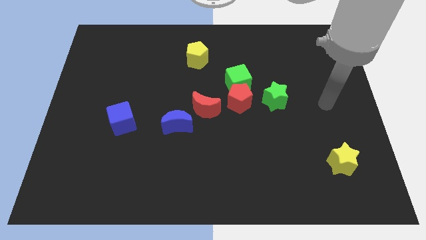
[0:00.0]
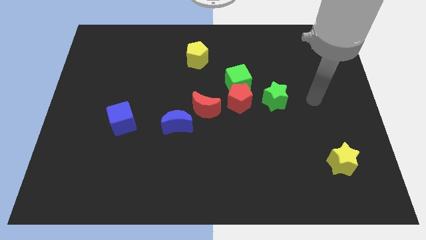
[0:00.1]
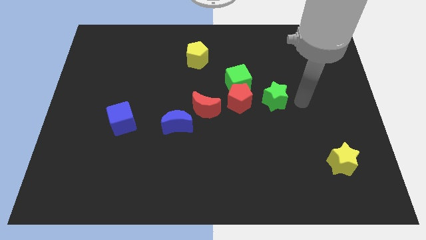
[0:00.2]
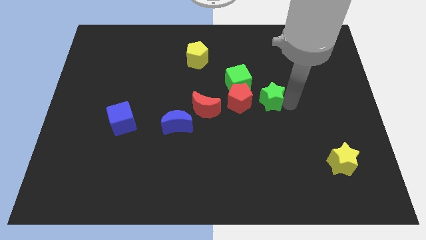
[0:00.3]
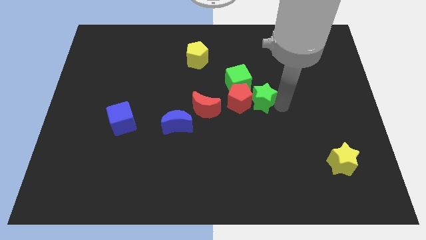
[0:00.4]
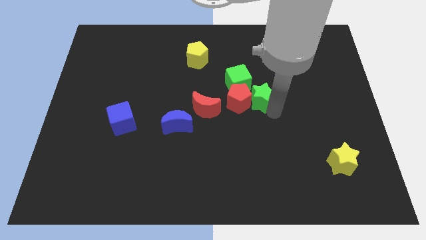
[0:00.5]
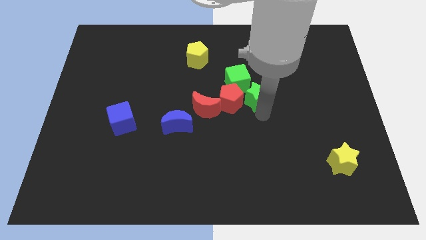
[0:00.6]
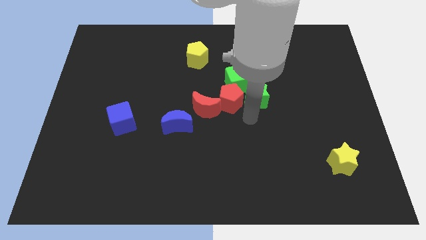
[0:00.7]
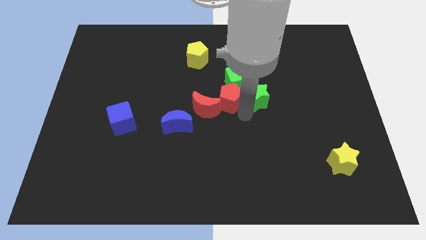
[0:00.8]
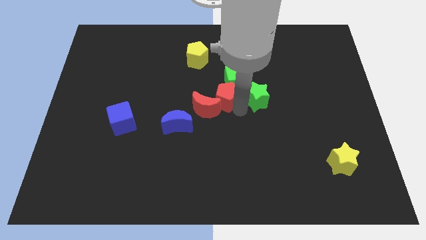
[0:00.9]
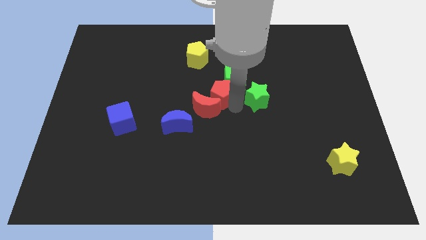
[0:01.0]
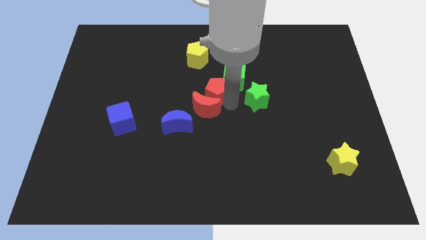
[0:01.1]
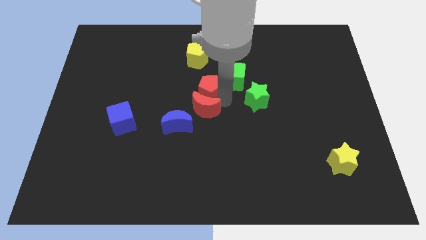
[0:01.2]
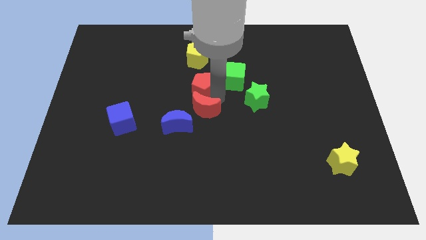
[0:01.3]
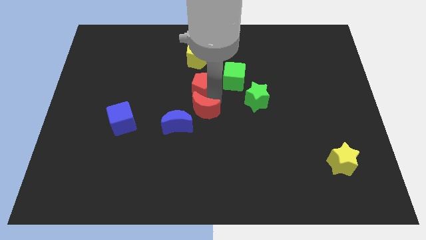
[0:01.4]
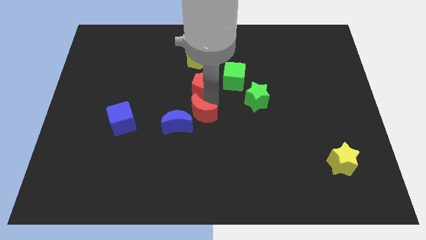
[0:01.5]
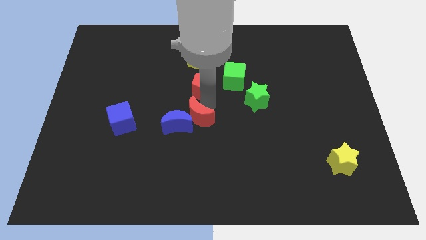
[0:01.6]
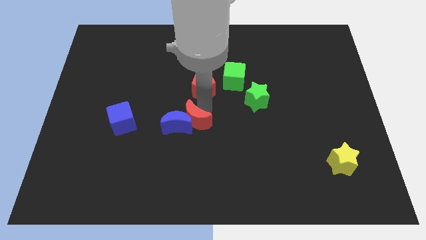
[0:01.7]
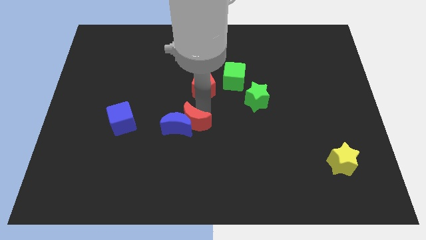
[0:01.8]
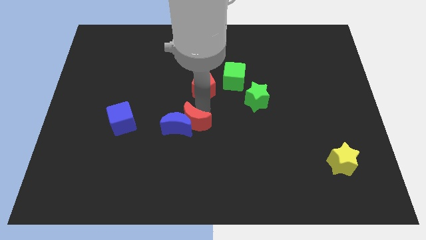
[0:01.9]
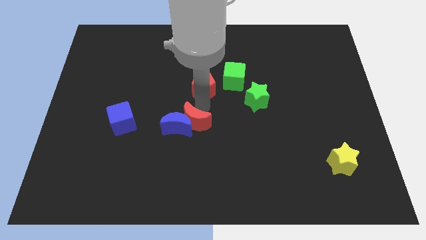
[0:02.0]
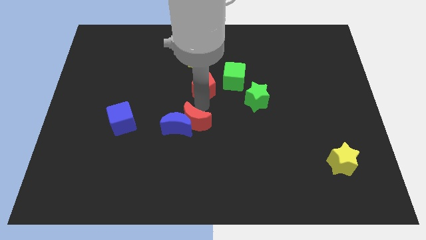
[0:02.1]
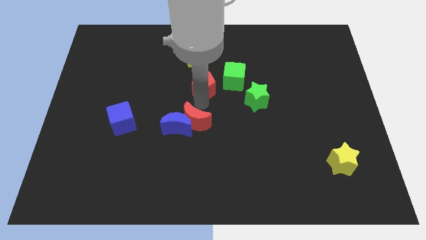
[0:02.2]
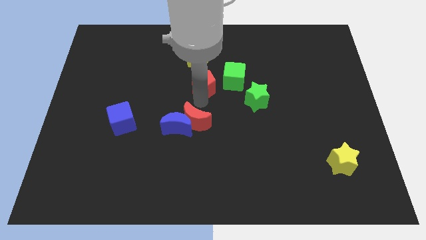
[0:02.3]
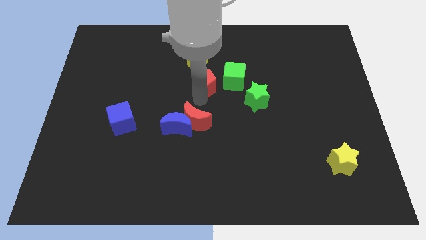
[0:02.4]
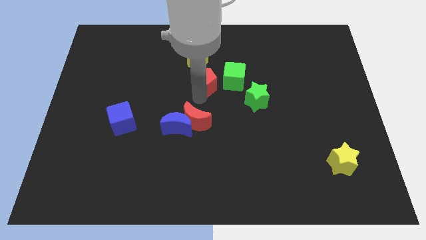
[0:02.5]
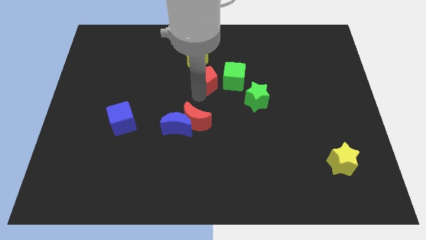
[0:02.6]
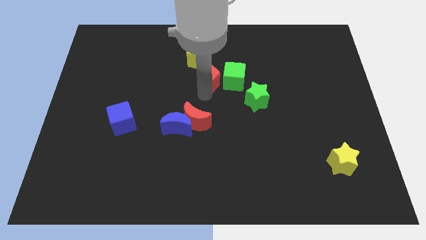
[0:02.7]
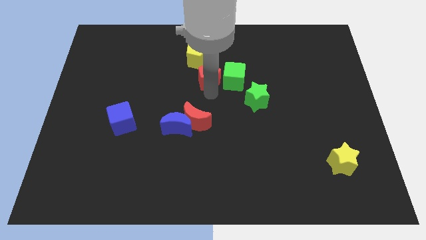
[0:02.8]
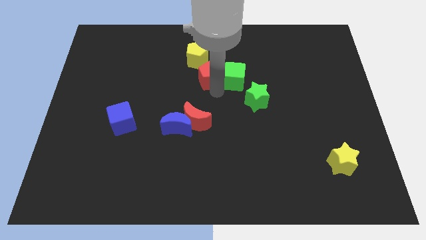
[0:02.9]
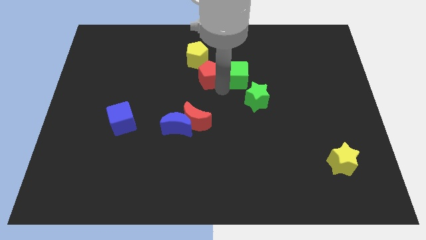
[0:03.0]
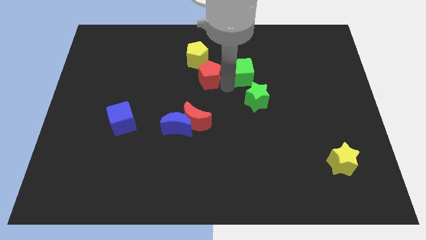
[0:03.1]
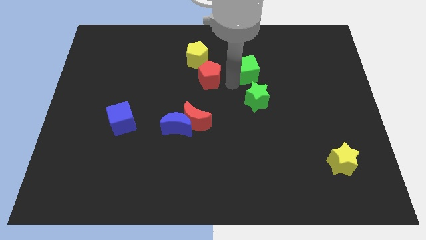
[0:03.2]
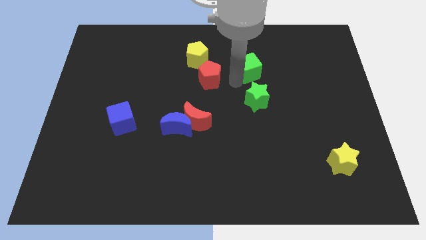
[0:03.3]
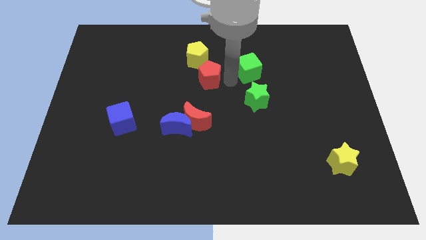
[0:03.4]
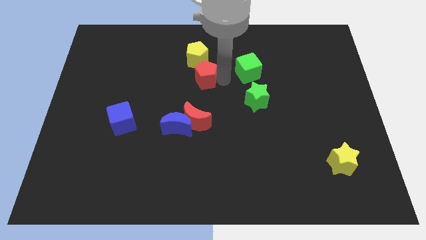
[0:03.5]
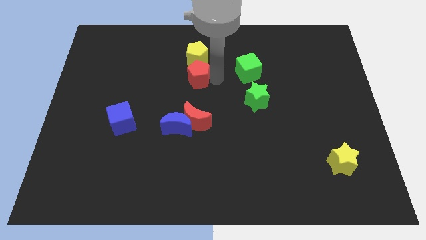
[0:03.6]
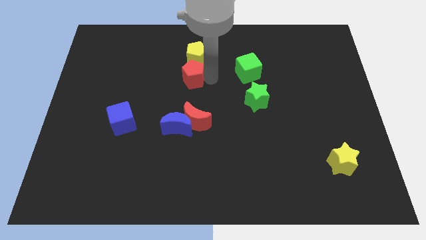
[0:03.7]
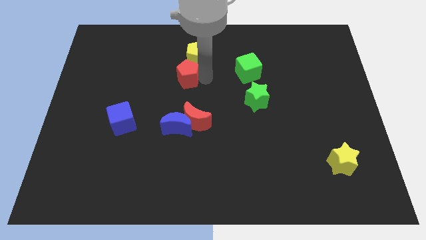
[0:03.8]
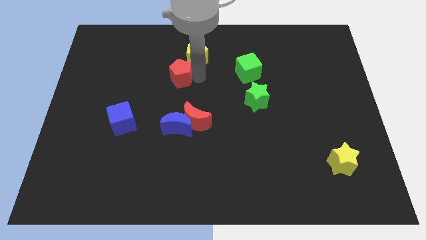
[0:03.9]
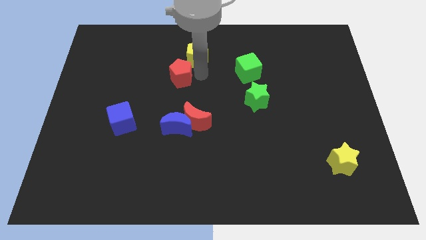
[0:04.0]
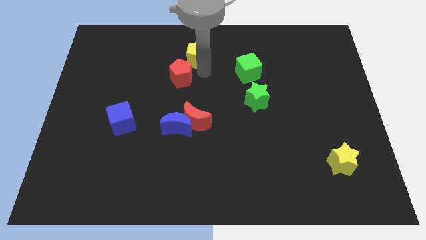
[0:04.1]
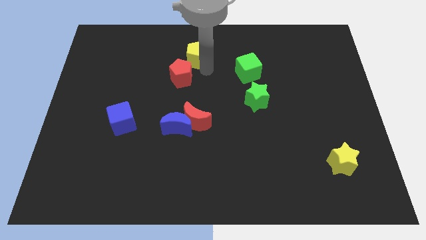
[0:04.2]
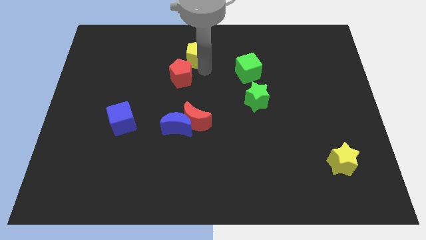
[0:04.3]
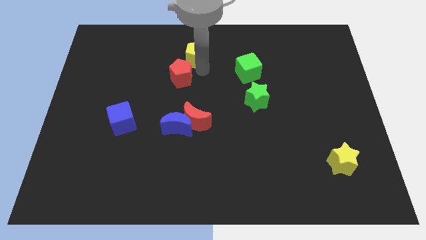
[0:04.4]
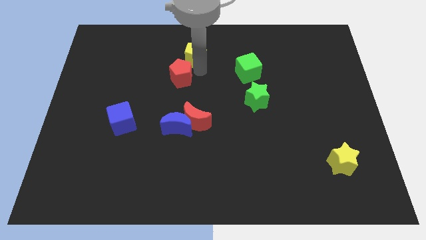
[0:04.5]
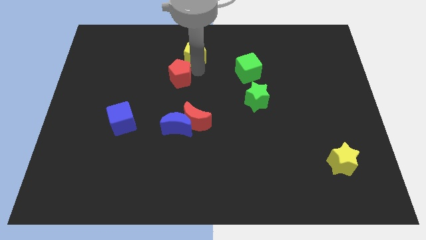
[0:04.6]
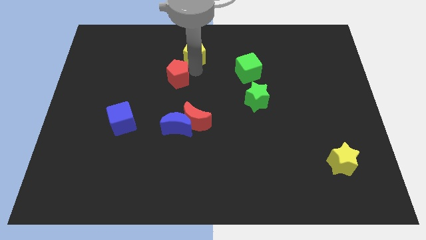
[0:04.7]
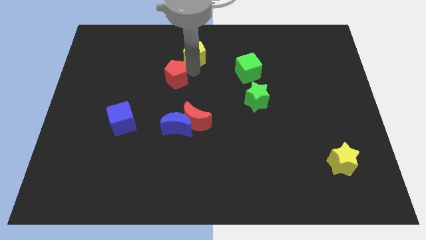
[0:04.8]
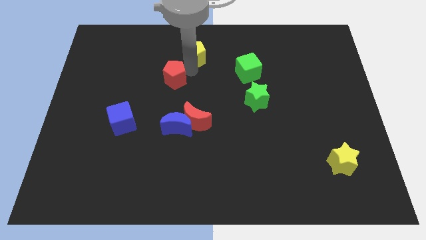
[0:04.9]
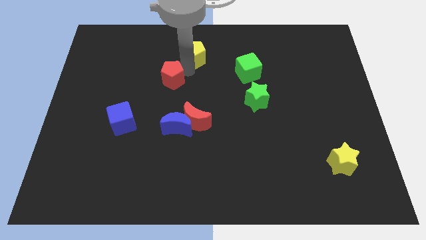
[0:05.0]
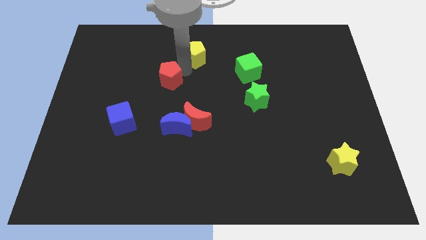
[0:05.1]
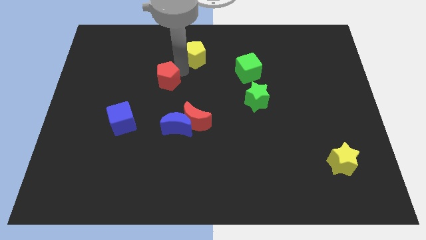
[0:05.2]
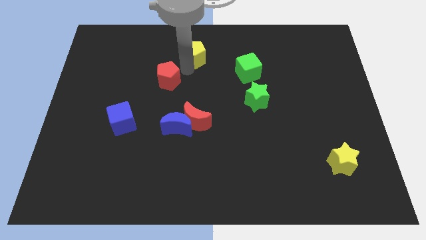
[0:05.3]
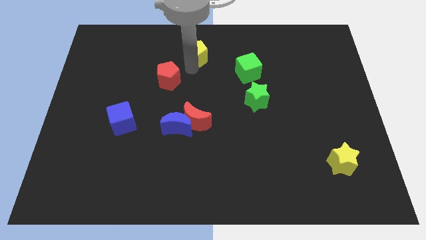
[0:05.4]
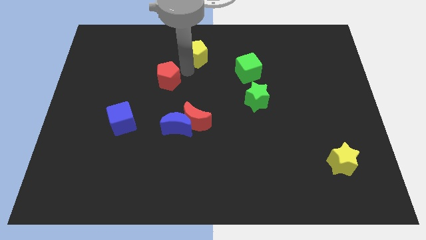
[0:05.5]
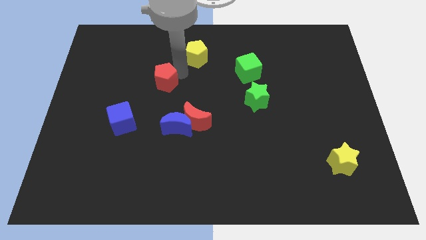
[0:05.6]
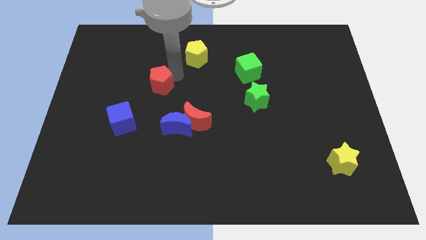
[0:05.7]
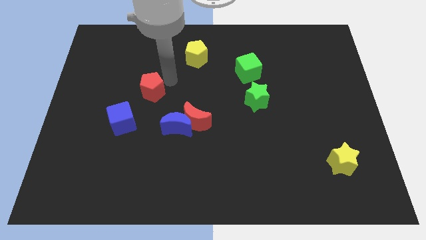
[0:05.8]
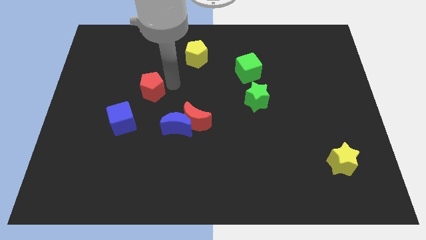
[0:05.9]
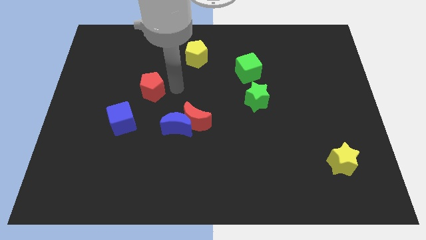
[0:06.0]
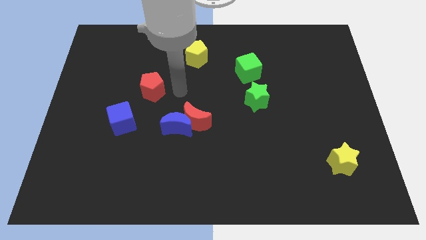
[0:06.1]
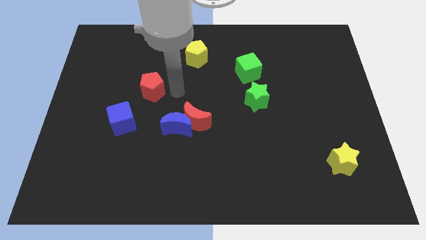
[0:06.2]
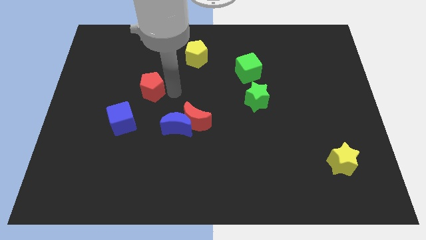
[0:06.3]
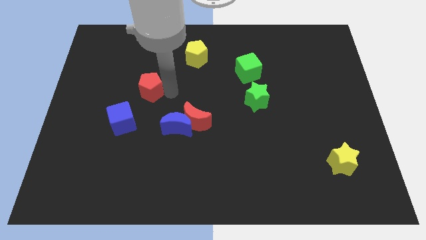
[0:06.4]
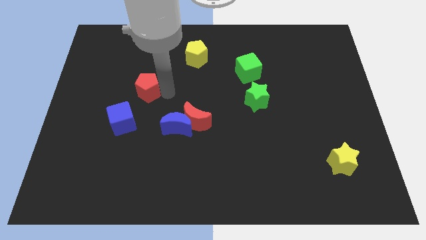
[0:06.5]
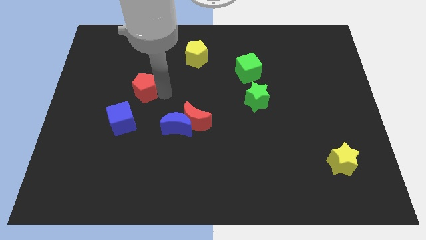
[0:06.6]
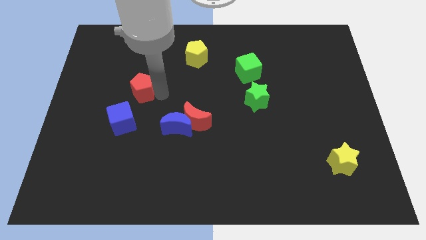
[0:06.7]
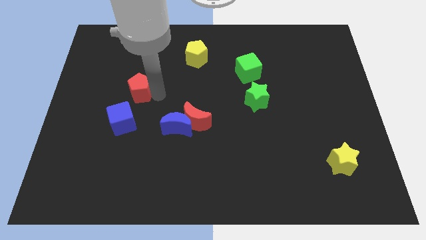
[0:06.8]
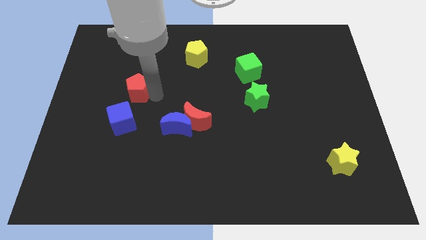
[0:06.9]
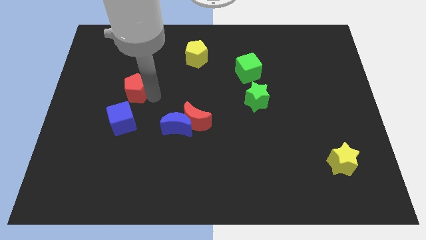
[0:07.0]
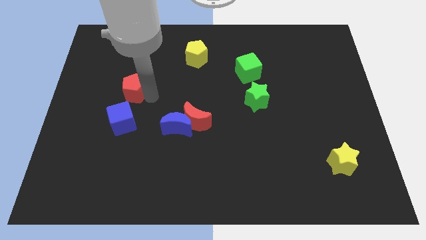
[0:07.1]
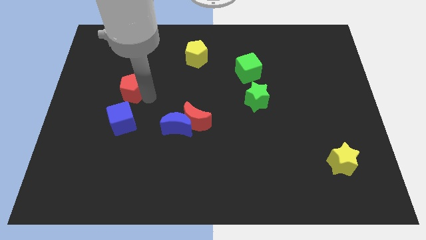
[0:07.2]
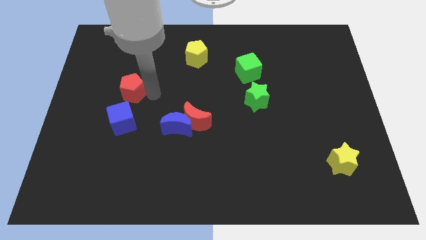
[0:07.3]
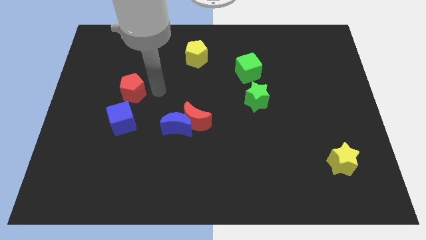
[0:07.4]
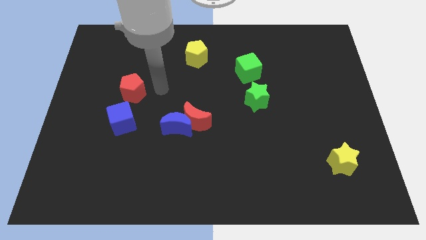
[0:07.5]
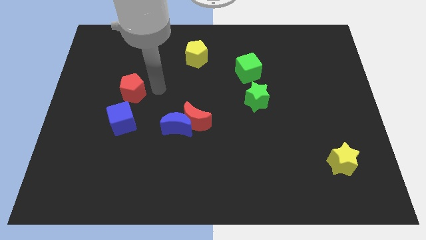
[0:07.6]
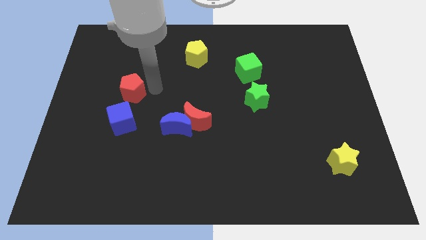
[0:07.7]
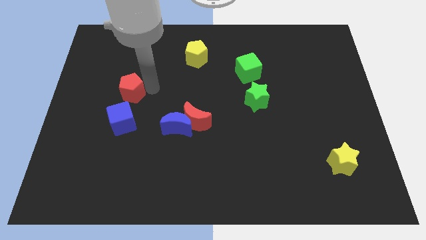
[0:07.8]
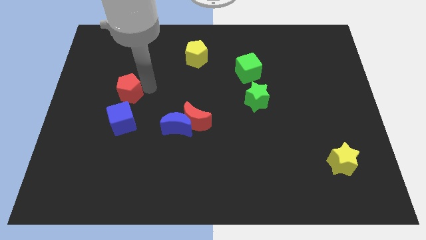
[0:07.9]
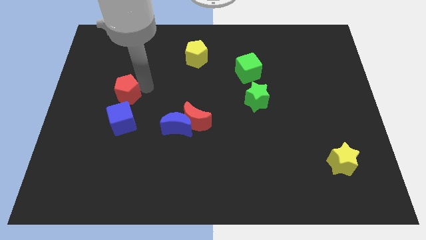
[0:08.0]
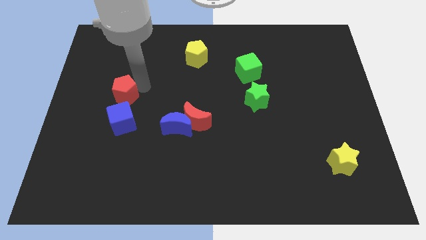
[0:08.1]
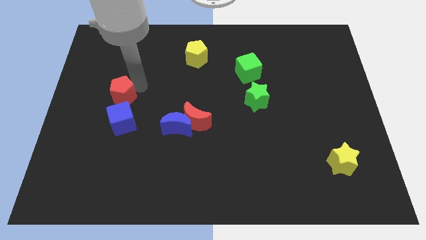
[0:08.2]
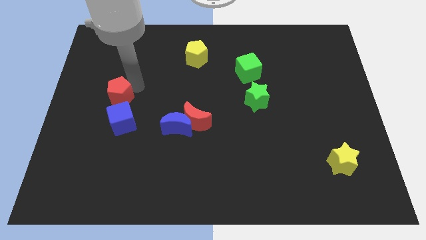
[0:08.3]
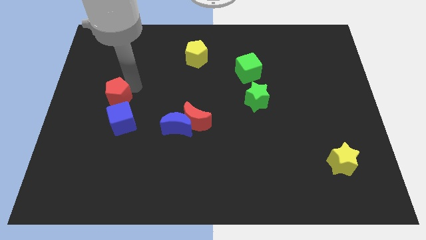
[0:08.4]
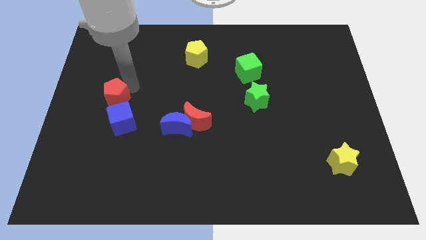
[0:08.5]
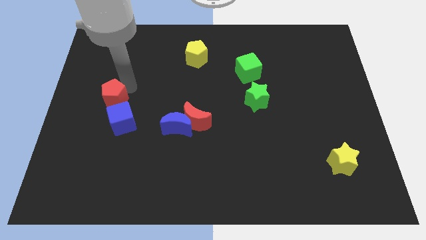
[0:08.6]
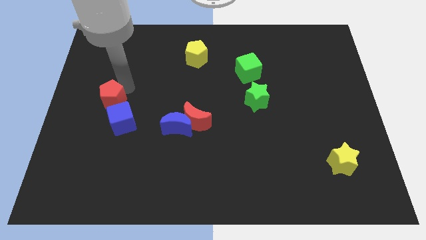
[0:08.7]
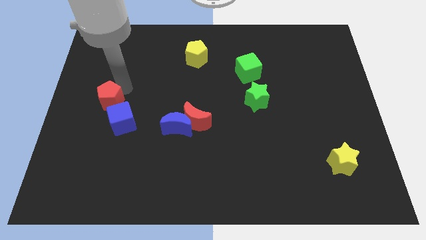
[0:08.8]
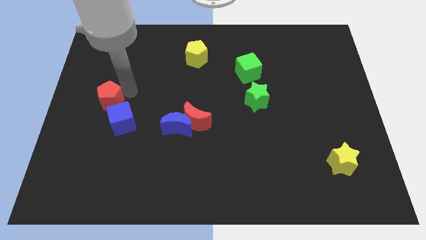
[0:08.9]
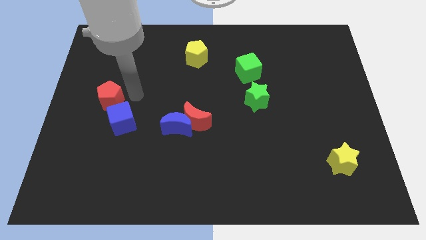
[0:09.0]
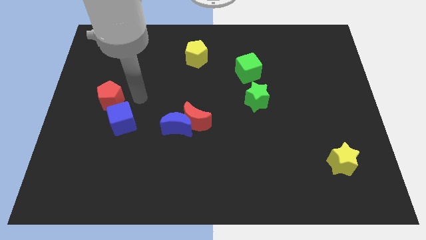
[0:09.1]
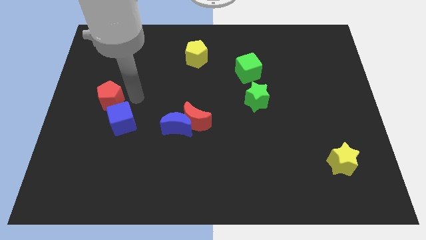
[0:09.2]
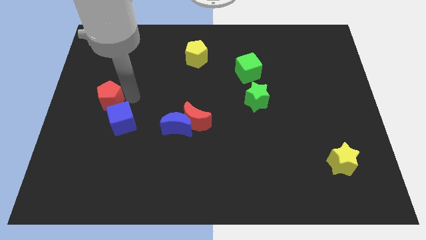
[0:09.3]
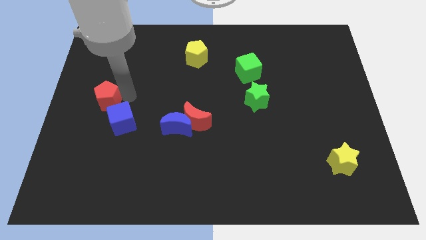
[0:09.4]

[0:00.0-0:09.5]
push the red pentagon to the left side of the board
